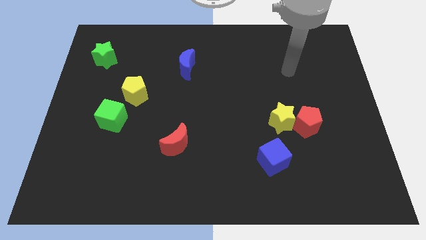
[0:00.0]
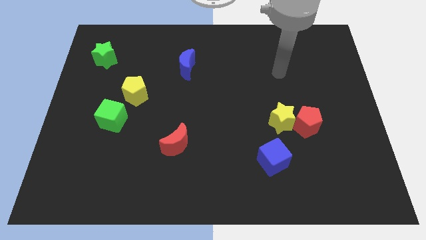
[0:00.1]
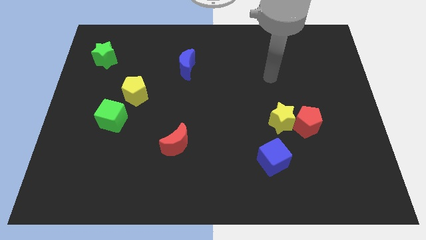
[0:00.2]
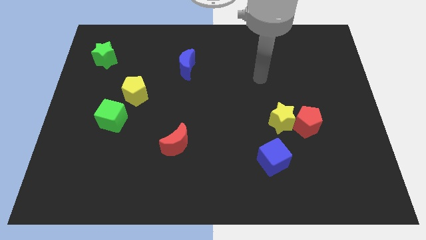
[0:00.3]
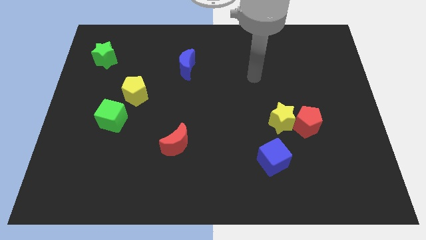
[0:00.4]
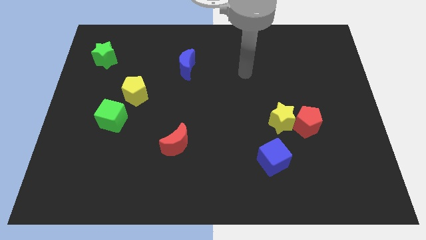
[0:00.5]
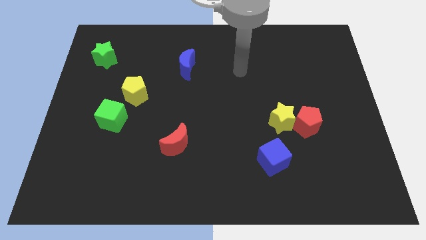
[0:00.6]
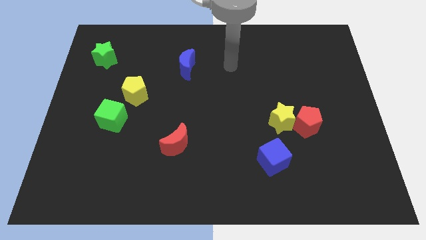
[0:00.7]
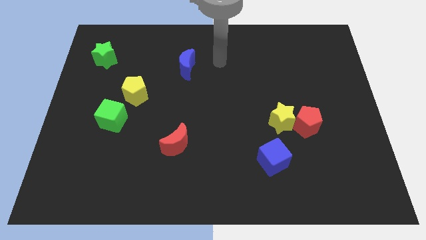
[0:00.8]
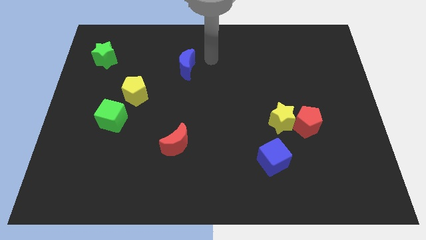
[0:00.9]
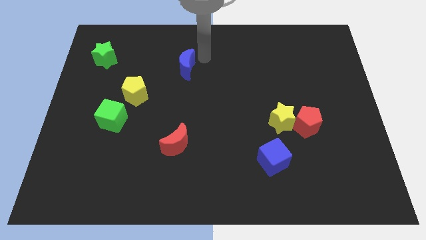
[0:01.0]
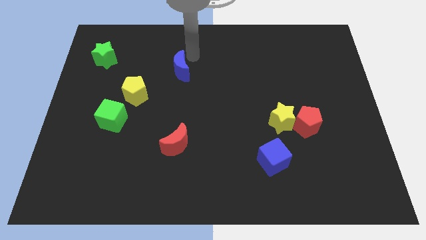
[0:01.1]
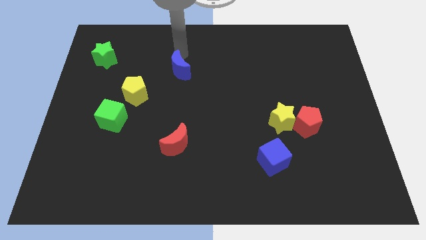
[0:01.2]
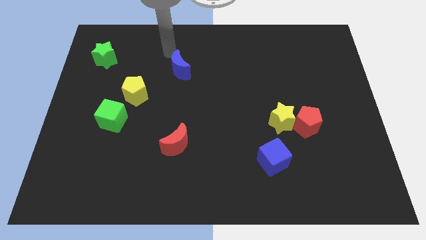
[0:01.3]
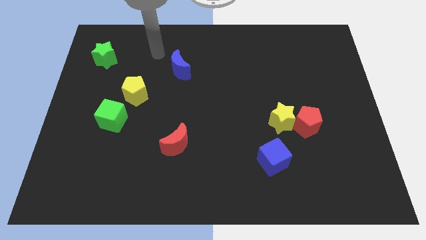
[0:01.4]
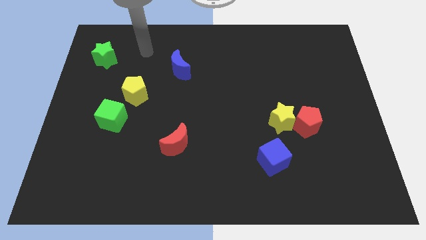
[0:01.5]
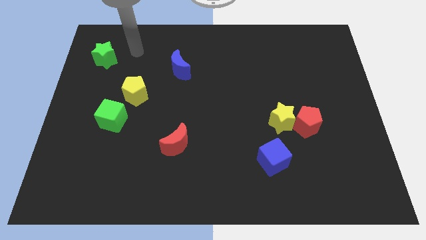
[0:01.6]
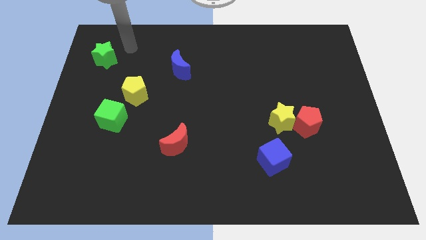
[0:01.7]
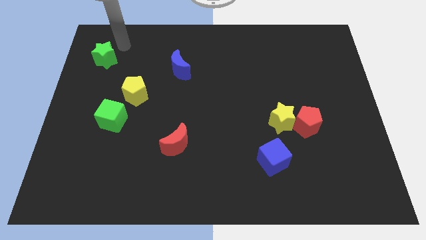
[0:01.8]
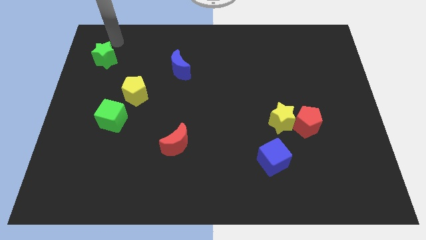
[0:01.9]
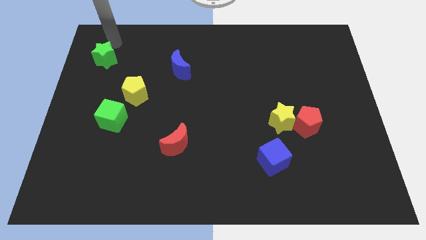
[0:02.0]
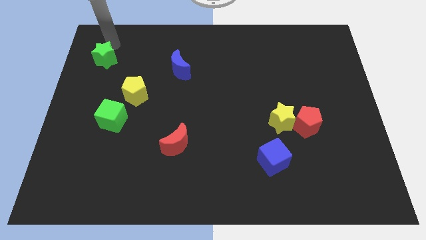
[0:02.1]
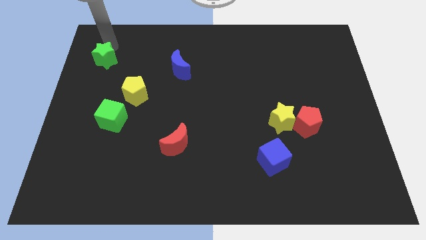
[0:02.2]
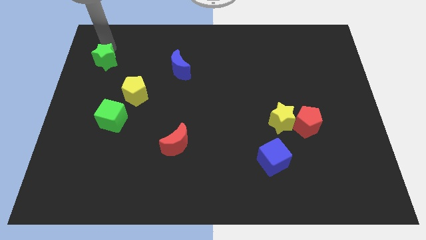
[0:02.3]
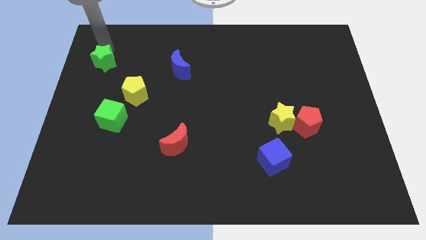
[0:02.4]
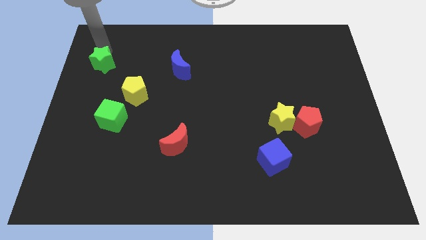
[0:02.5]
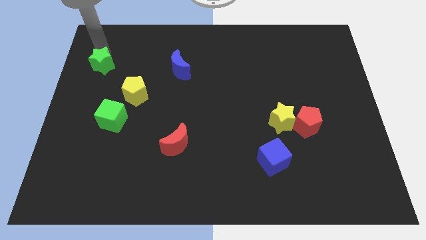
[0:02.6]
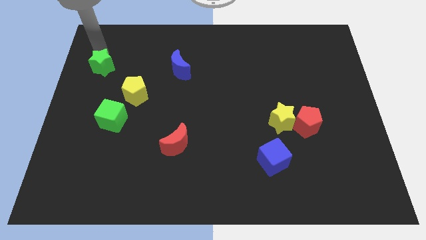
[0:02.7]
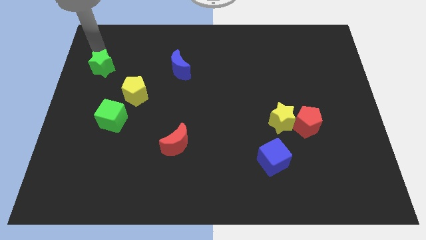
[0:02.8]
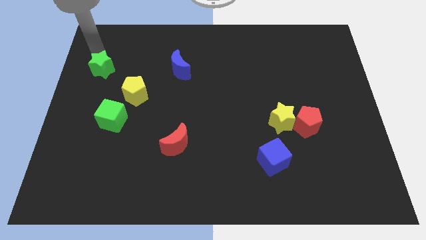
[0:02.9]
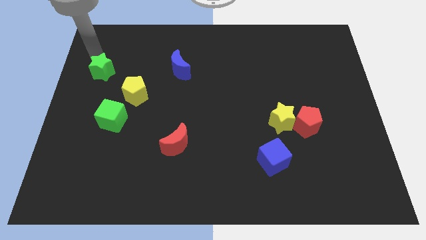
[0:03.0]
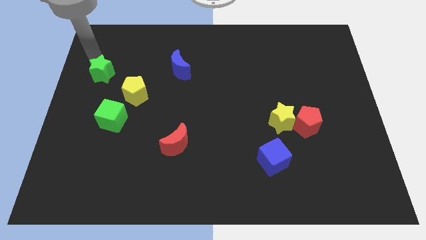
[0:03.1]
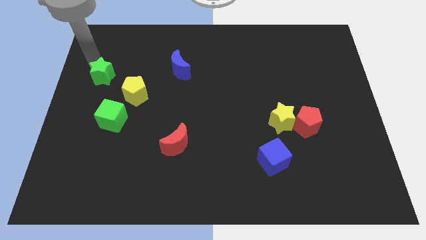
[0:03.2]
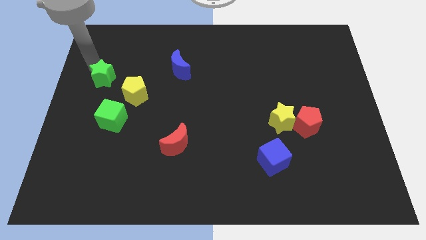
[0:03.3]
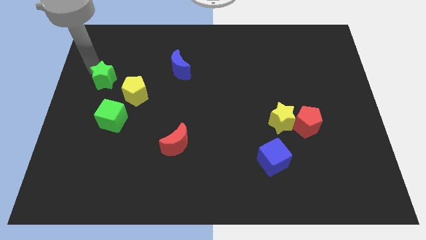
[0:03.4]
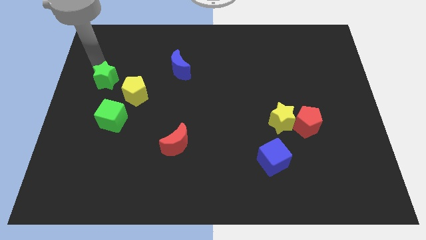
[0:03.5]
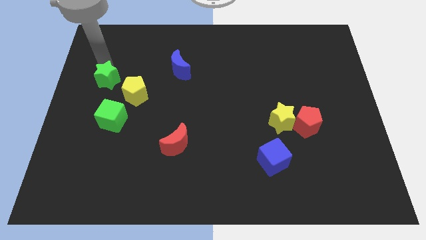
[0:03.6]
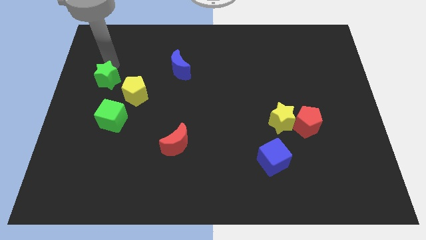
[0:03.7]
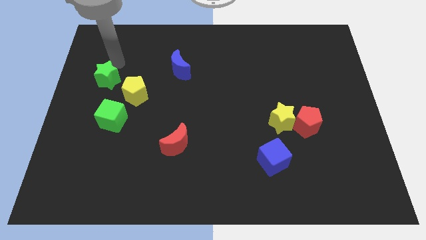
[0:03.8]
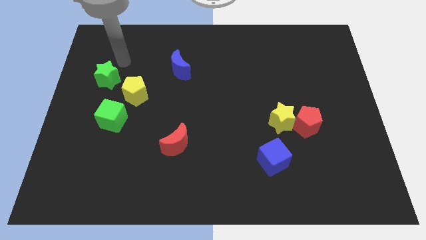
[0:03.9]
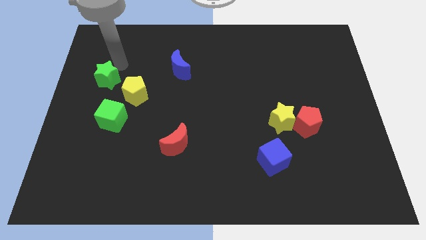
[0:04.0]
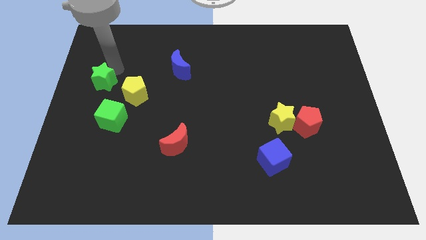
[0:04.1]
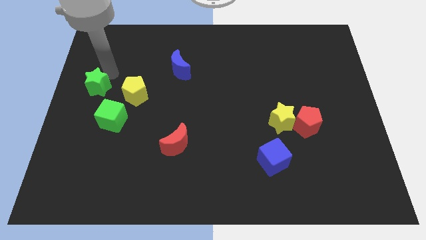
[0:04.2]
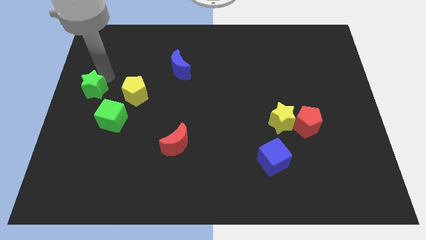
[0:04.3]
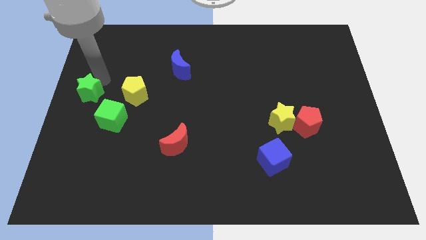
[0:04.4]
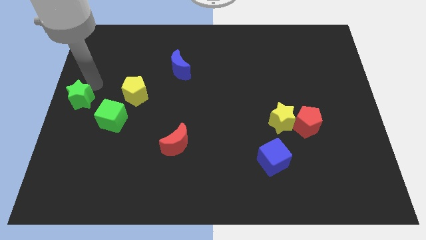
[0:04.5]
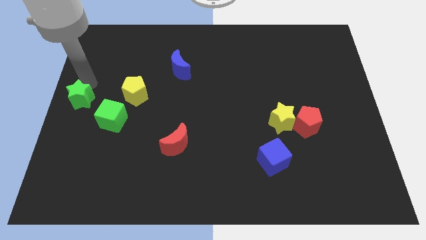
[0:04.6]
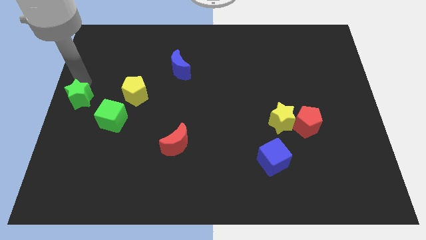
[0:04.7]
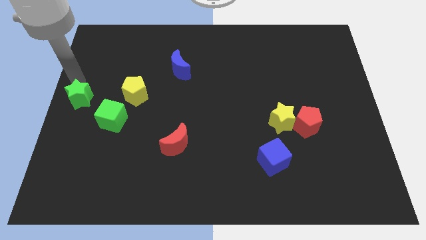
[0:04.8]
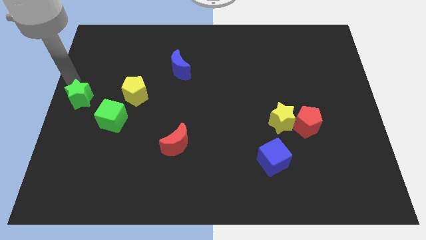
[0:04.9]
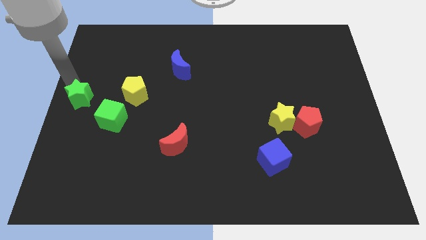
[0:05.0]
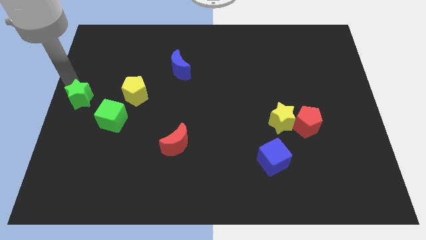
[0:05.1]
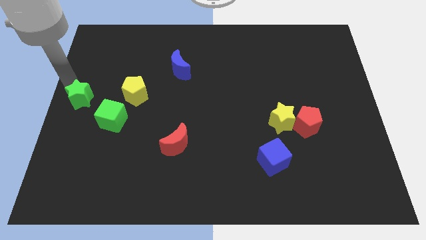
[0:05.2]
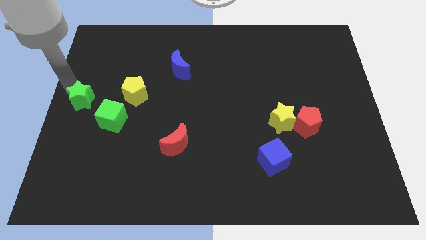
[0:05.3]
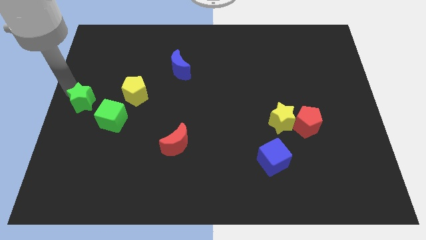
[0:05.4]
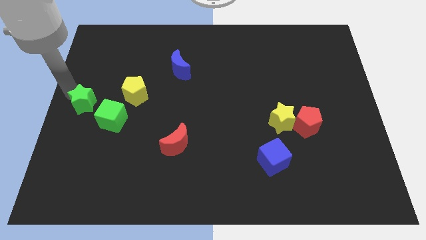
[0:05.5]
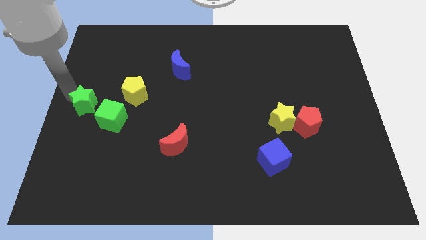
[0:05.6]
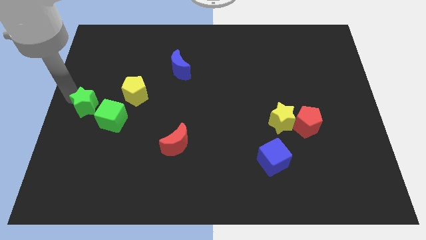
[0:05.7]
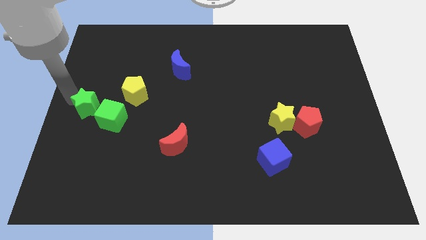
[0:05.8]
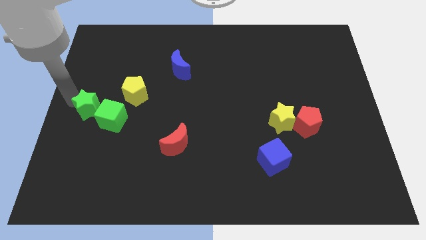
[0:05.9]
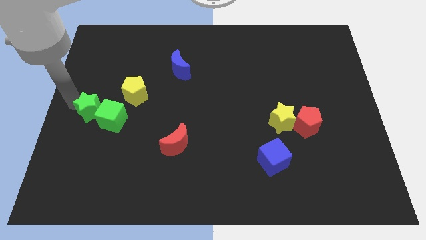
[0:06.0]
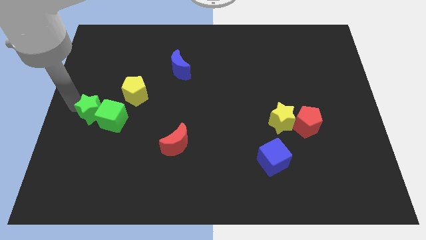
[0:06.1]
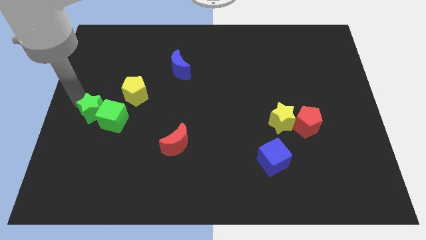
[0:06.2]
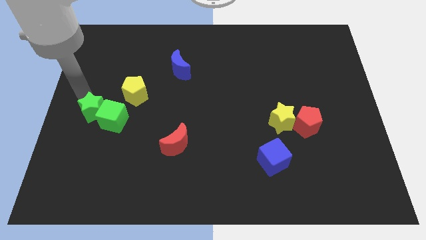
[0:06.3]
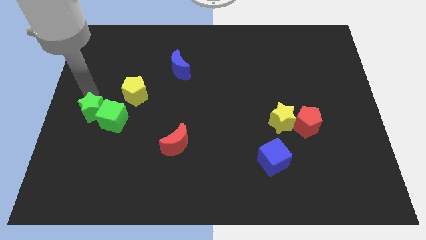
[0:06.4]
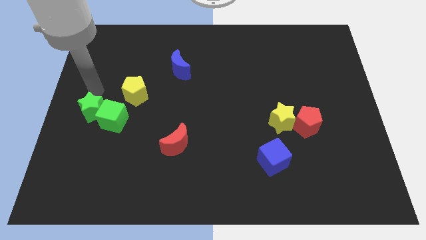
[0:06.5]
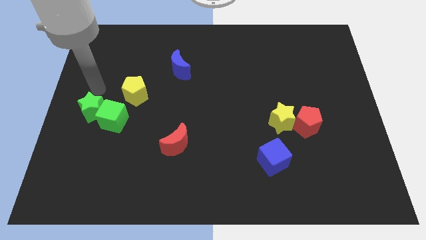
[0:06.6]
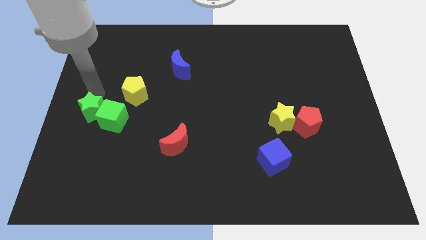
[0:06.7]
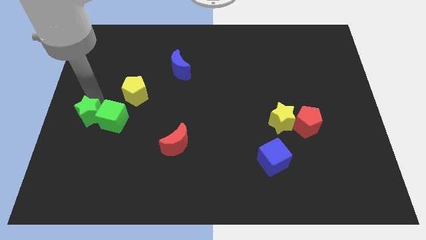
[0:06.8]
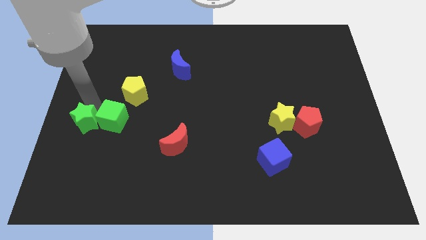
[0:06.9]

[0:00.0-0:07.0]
move the green star down

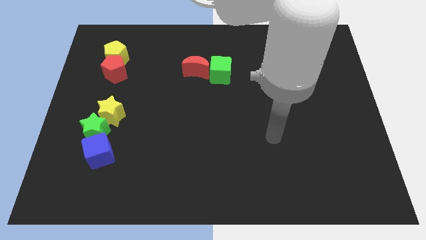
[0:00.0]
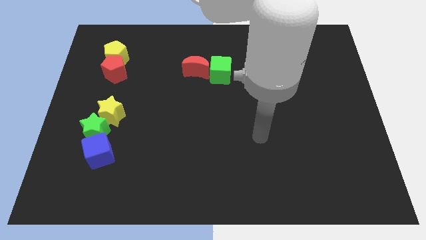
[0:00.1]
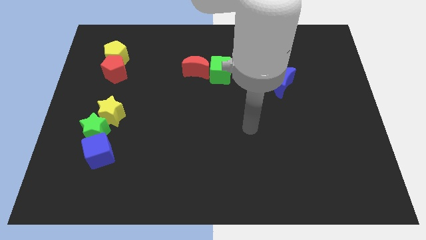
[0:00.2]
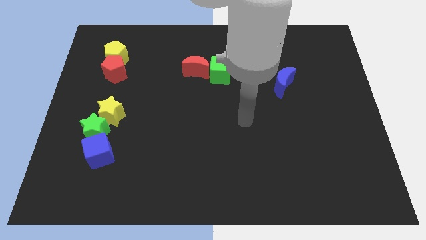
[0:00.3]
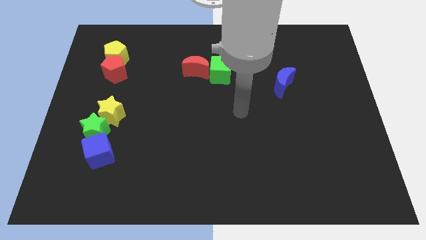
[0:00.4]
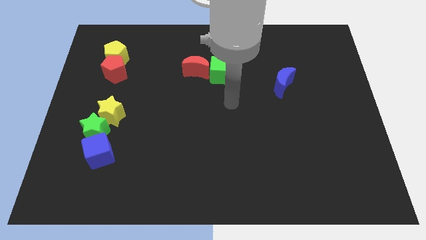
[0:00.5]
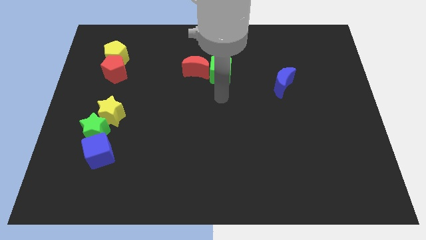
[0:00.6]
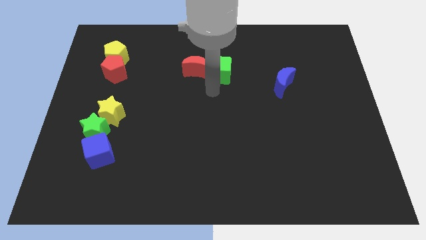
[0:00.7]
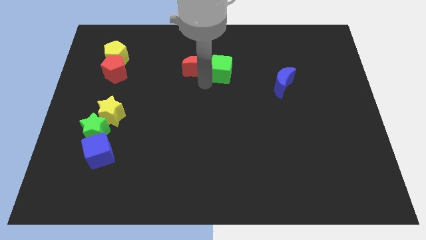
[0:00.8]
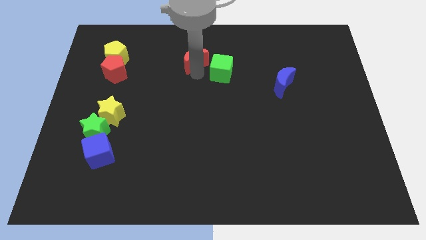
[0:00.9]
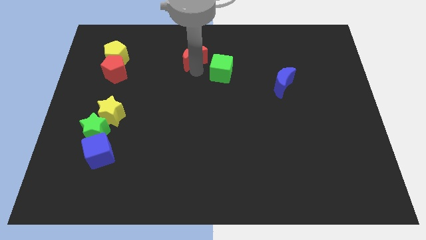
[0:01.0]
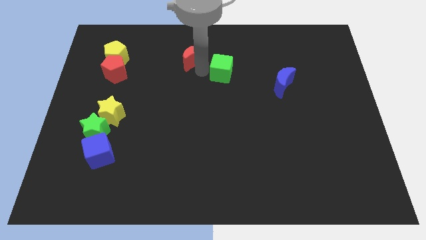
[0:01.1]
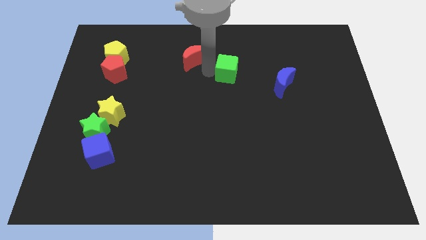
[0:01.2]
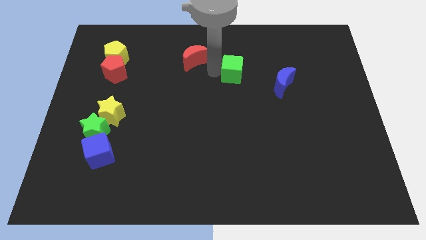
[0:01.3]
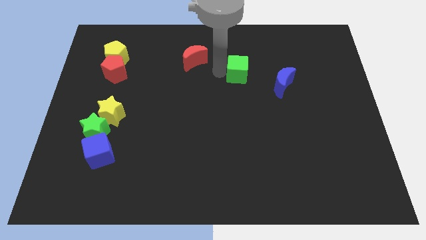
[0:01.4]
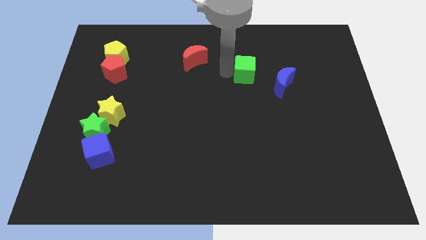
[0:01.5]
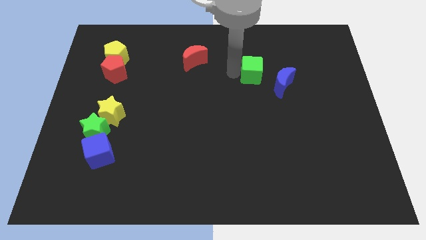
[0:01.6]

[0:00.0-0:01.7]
push the green cube to the right a little
